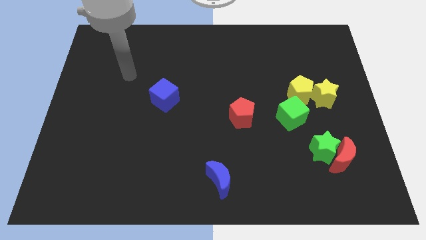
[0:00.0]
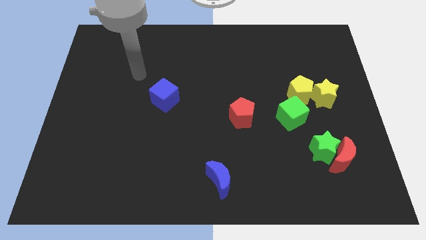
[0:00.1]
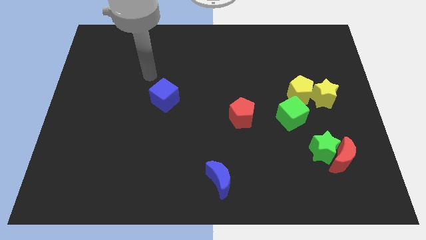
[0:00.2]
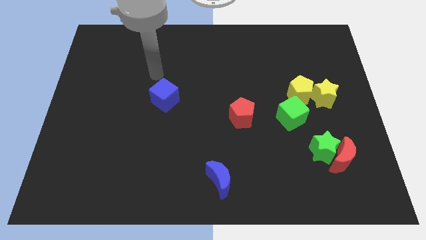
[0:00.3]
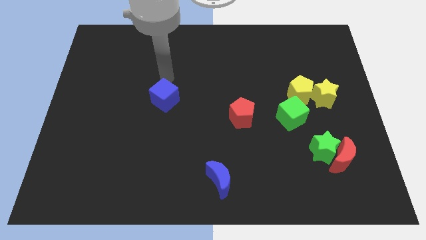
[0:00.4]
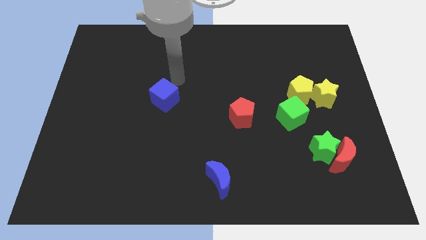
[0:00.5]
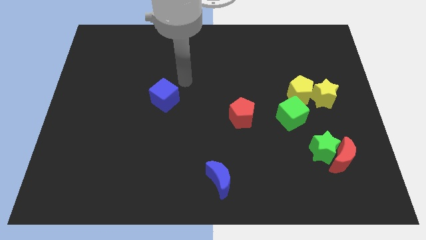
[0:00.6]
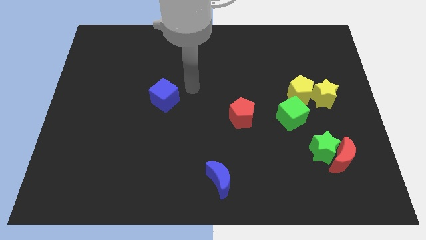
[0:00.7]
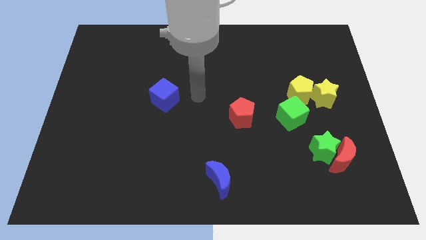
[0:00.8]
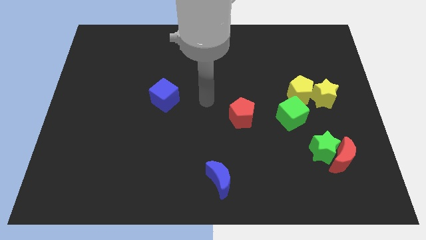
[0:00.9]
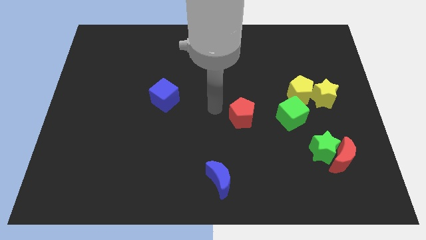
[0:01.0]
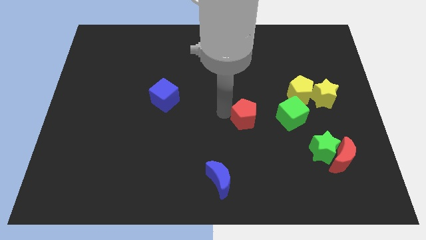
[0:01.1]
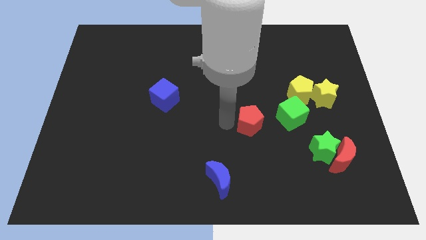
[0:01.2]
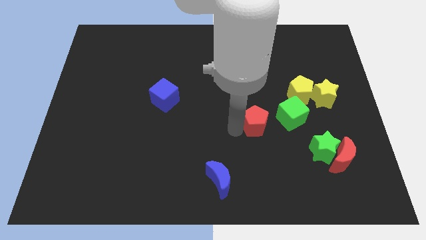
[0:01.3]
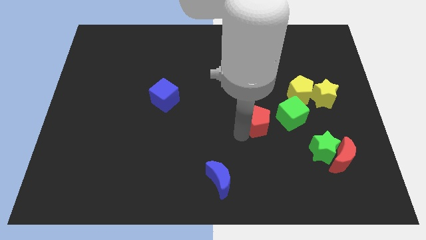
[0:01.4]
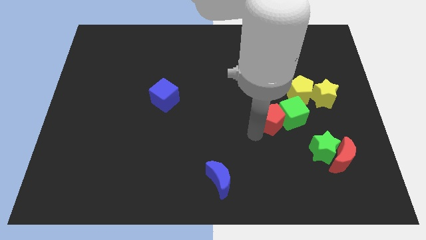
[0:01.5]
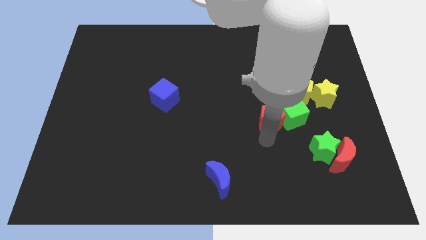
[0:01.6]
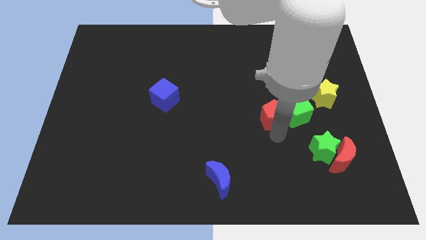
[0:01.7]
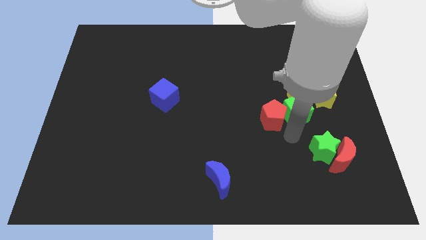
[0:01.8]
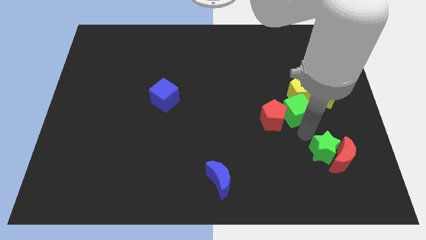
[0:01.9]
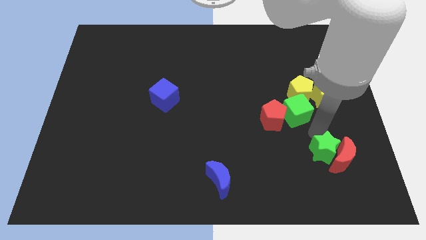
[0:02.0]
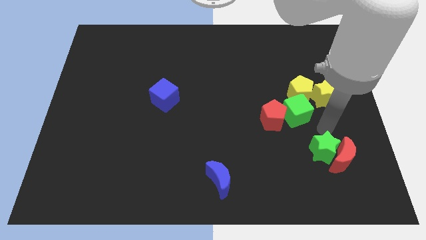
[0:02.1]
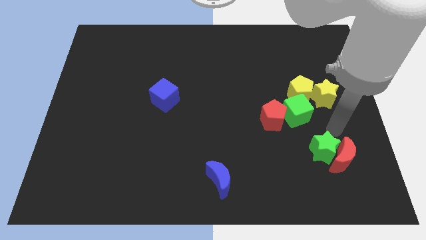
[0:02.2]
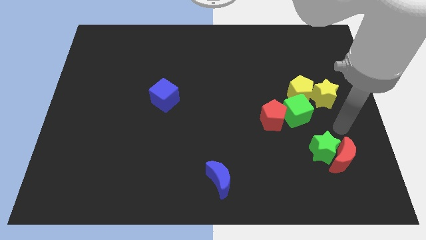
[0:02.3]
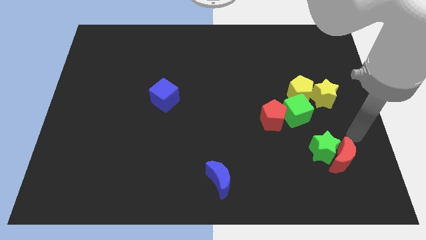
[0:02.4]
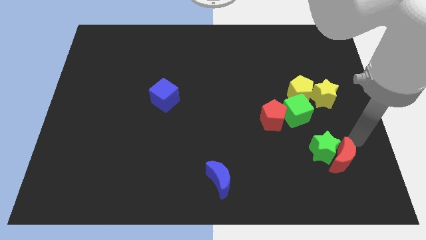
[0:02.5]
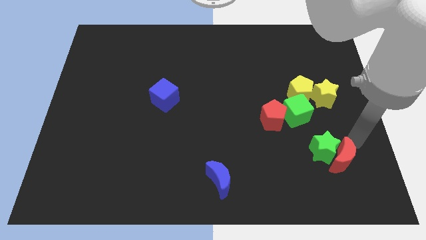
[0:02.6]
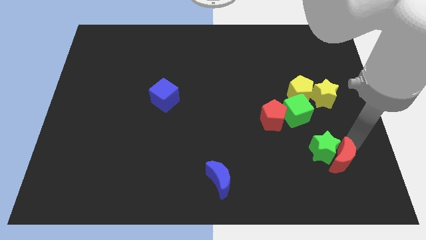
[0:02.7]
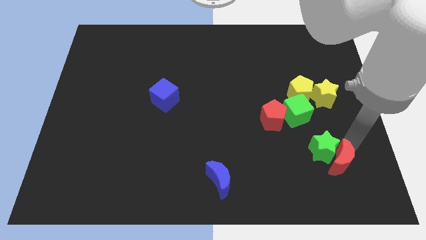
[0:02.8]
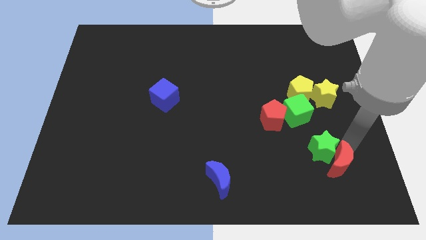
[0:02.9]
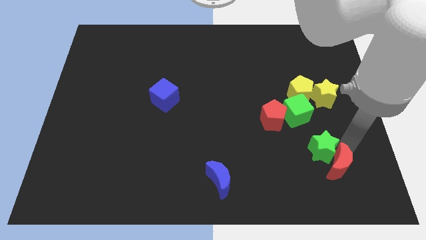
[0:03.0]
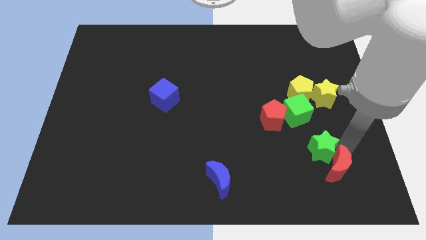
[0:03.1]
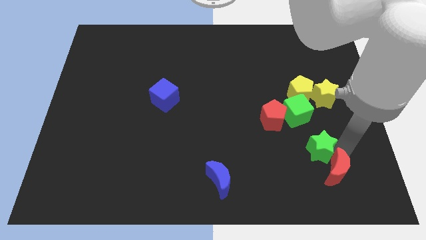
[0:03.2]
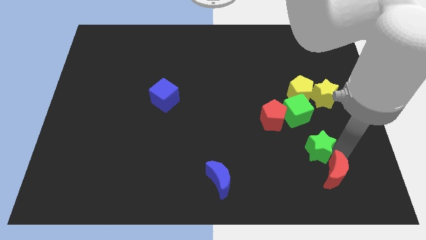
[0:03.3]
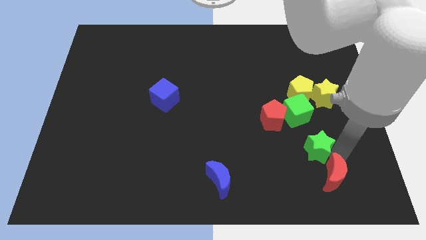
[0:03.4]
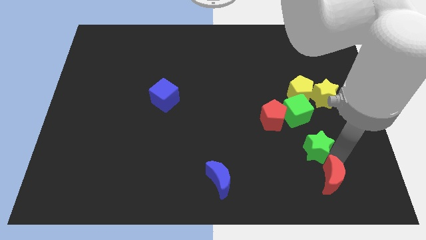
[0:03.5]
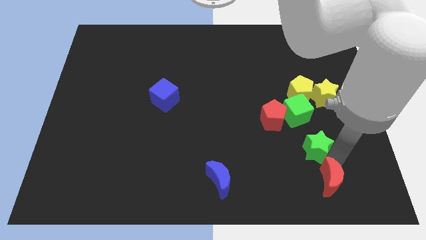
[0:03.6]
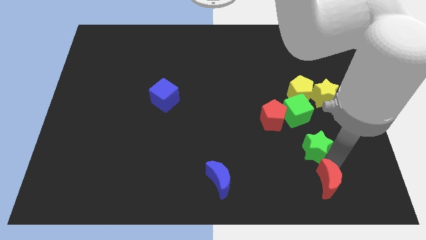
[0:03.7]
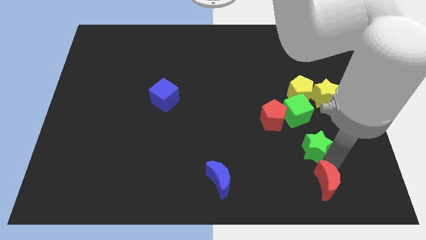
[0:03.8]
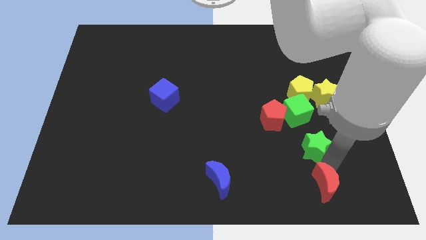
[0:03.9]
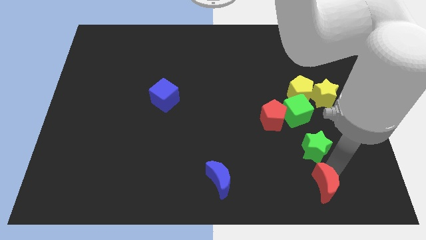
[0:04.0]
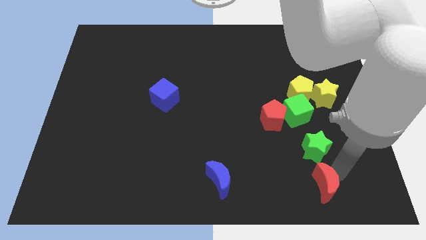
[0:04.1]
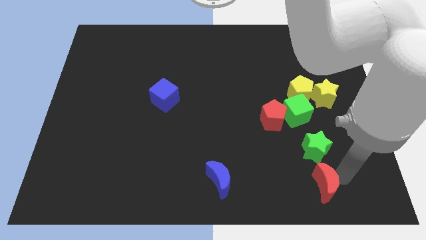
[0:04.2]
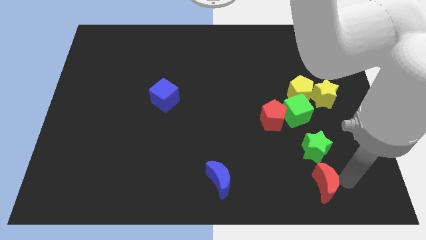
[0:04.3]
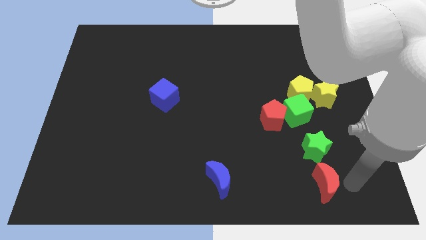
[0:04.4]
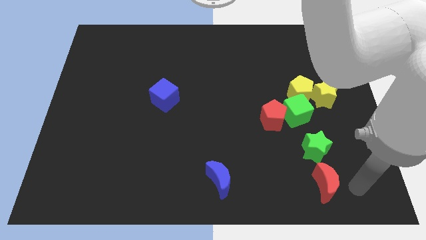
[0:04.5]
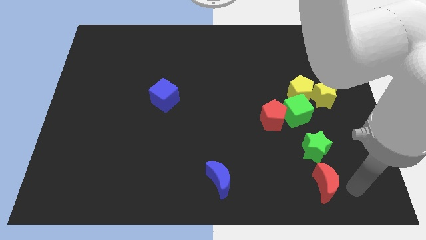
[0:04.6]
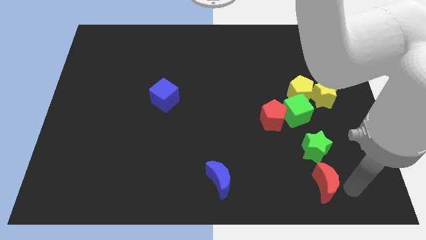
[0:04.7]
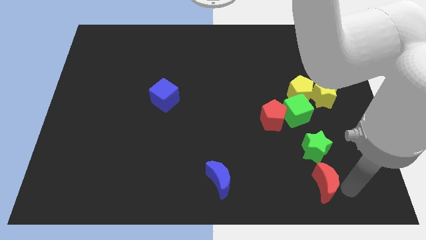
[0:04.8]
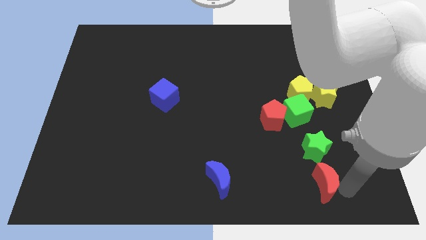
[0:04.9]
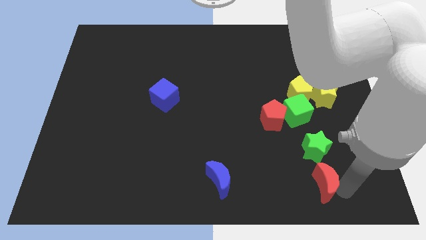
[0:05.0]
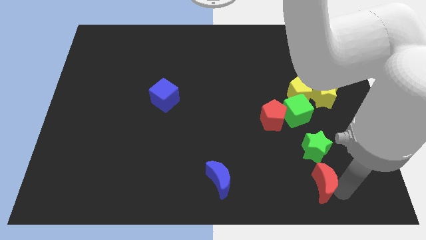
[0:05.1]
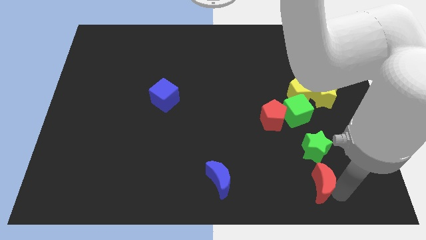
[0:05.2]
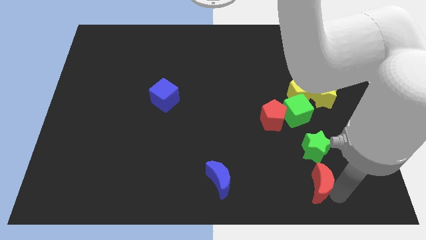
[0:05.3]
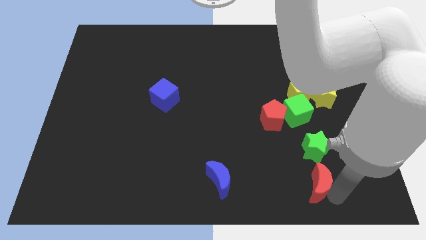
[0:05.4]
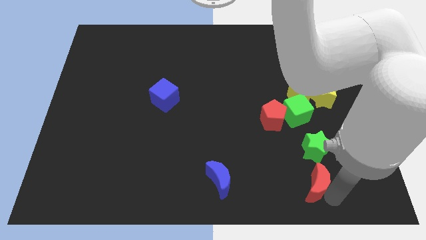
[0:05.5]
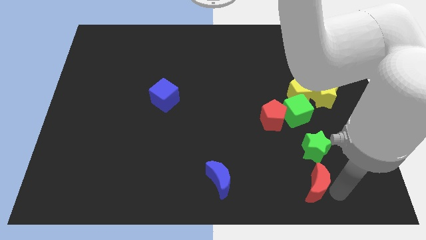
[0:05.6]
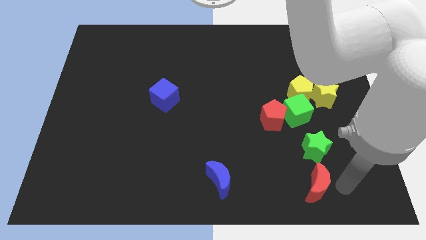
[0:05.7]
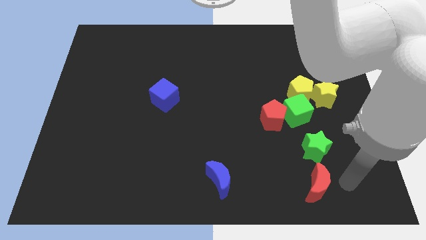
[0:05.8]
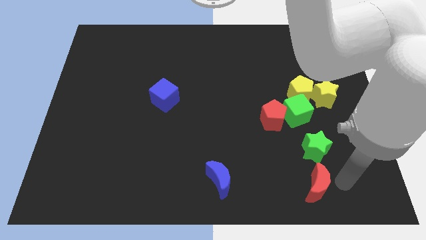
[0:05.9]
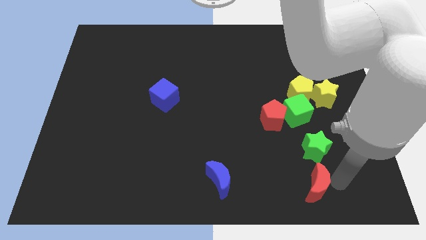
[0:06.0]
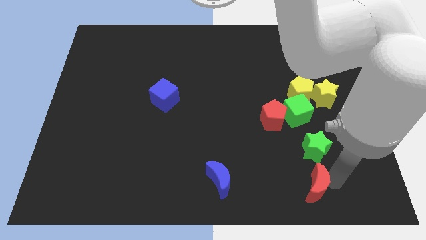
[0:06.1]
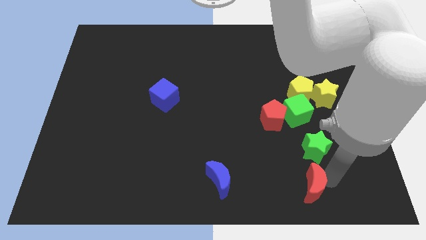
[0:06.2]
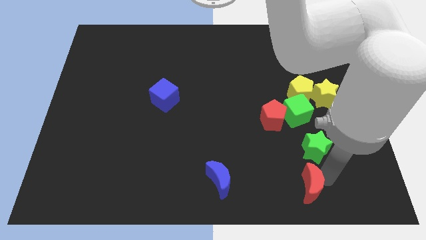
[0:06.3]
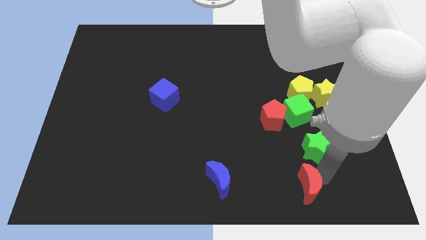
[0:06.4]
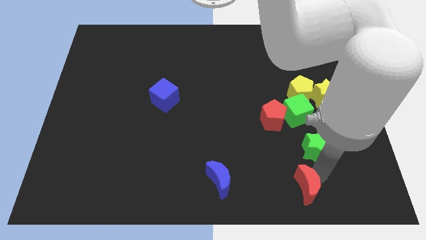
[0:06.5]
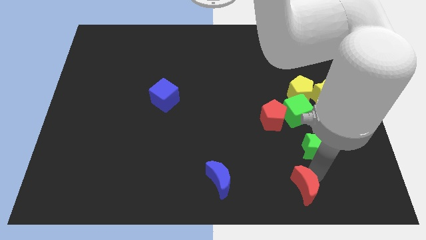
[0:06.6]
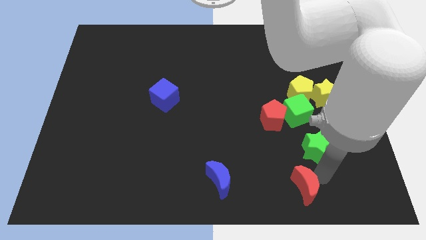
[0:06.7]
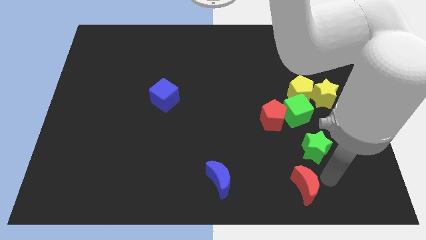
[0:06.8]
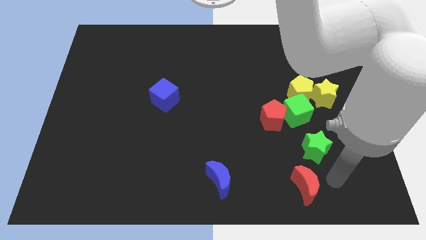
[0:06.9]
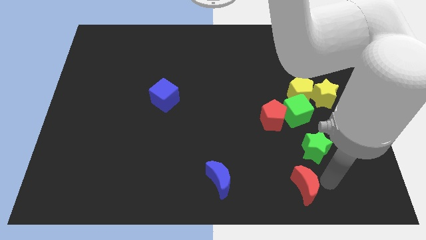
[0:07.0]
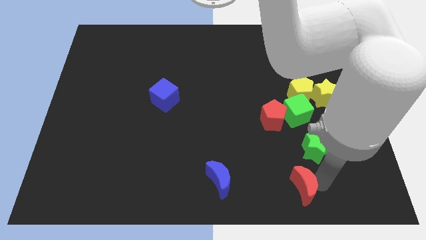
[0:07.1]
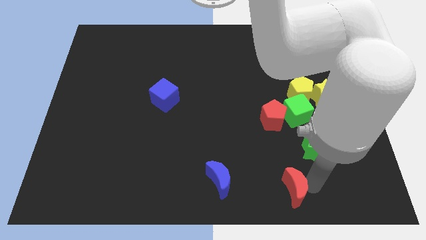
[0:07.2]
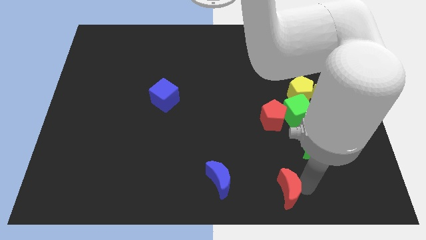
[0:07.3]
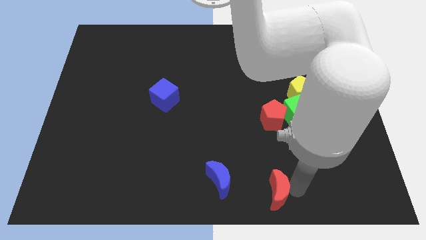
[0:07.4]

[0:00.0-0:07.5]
put the red moon to the bottom
